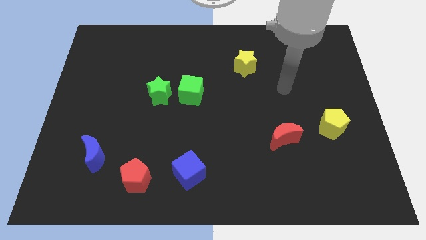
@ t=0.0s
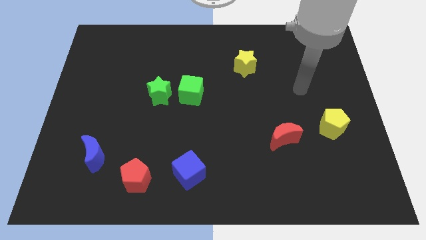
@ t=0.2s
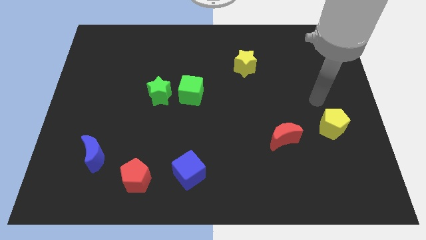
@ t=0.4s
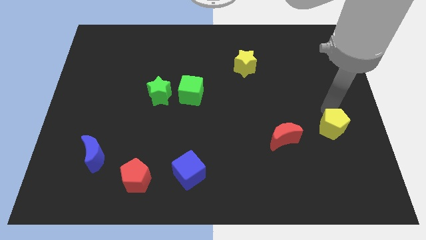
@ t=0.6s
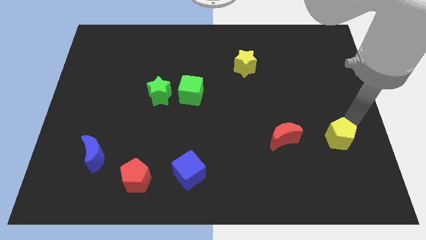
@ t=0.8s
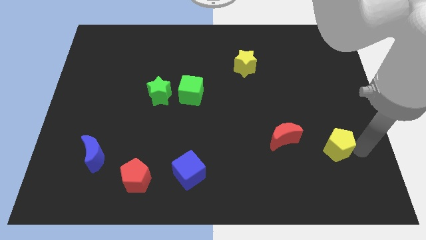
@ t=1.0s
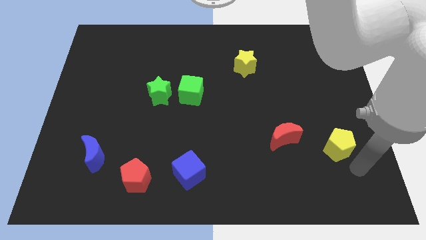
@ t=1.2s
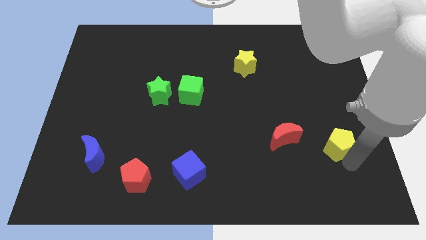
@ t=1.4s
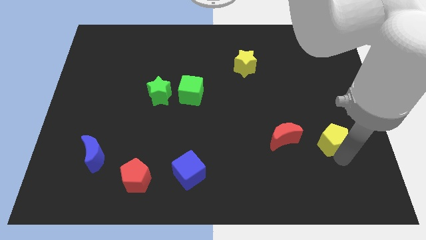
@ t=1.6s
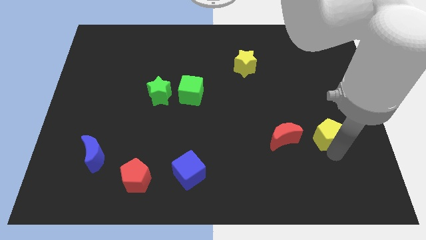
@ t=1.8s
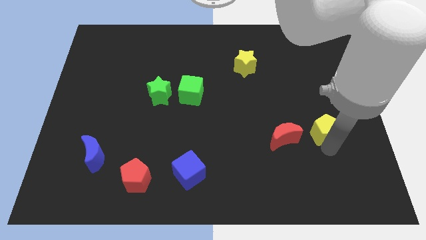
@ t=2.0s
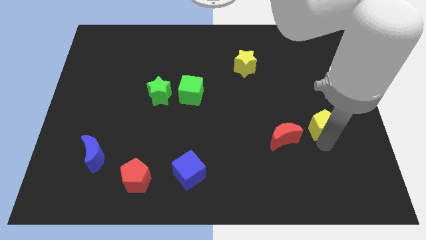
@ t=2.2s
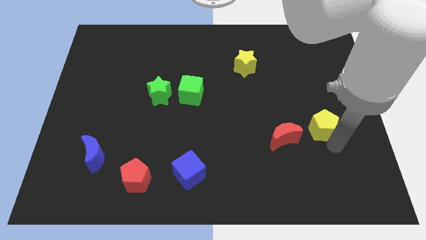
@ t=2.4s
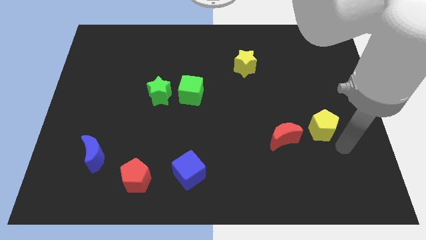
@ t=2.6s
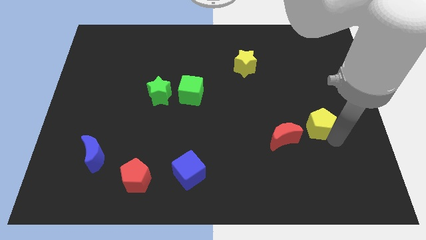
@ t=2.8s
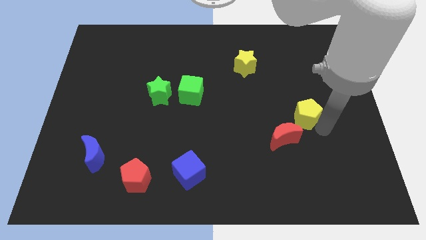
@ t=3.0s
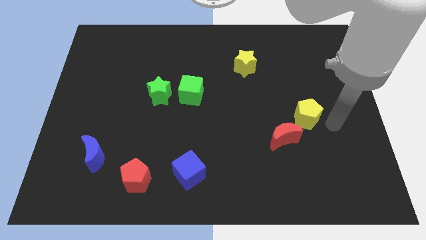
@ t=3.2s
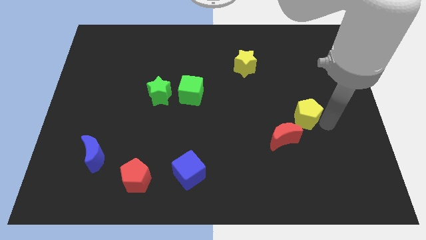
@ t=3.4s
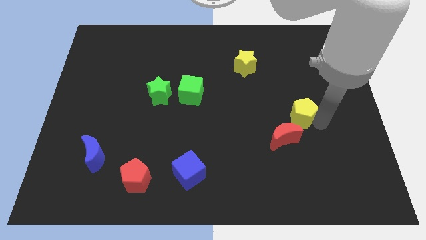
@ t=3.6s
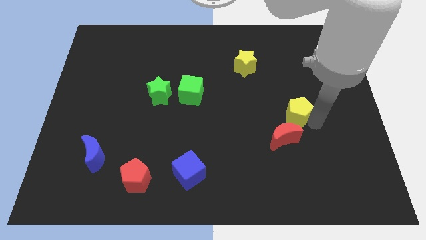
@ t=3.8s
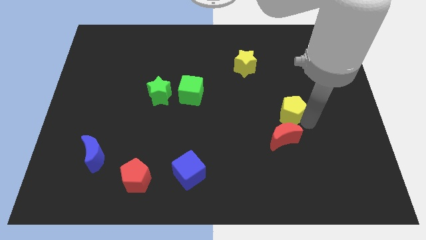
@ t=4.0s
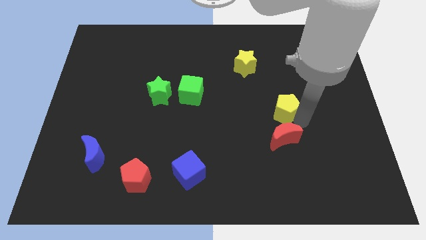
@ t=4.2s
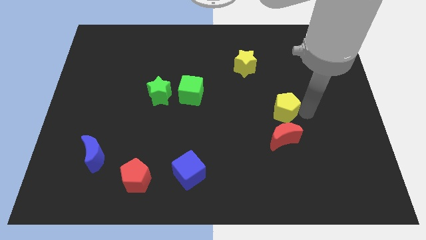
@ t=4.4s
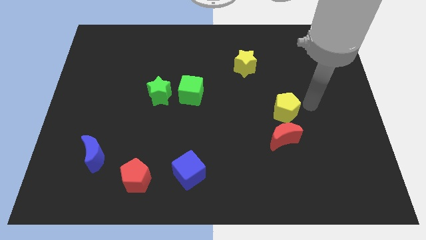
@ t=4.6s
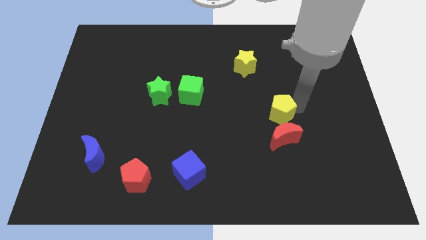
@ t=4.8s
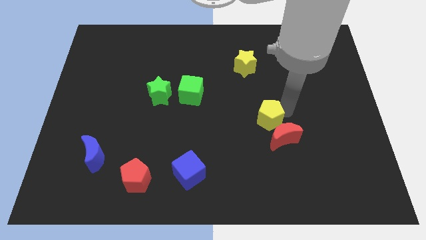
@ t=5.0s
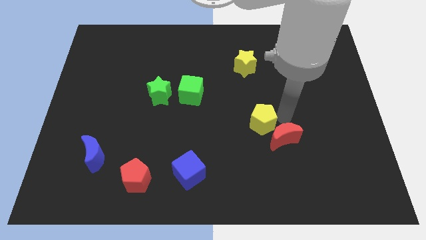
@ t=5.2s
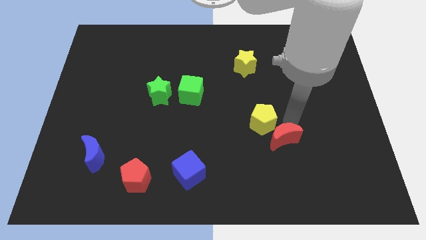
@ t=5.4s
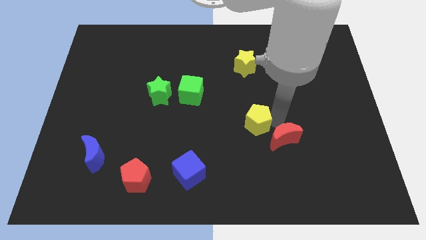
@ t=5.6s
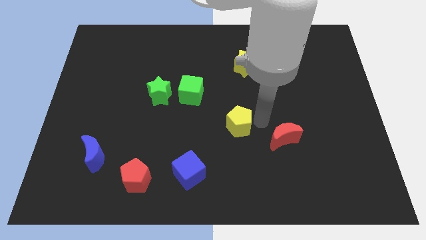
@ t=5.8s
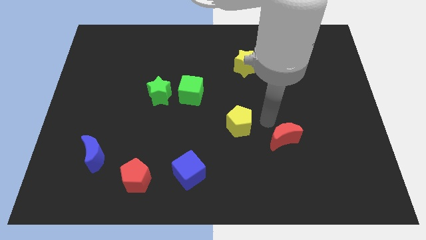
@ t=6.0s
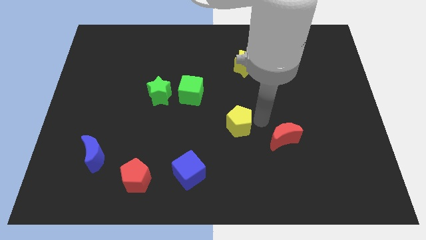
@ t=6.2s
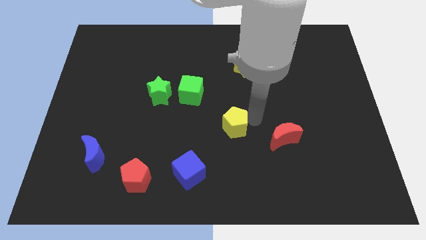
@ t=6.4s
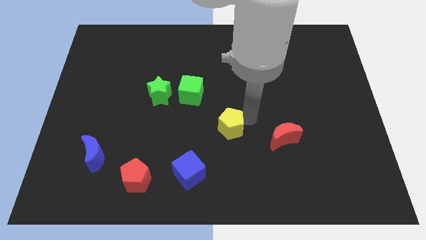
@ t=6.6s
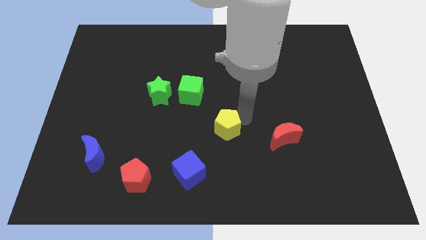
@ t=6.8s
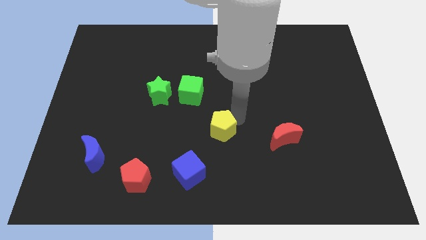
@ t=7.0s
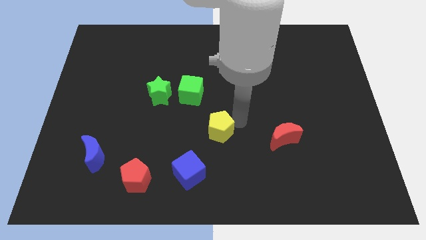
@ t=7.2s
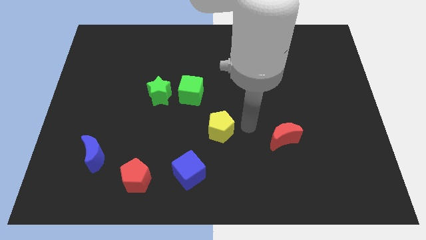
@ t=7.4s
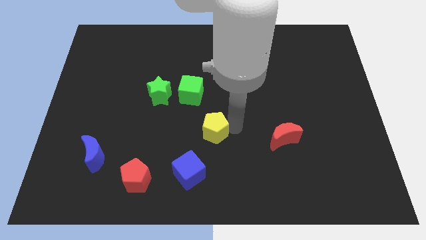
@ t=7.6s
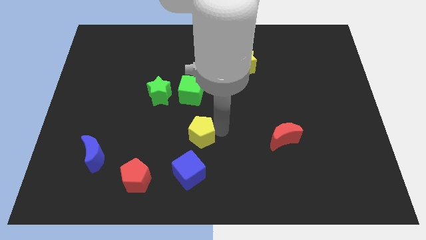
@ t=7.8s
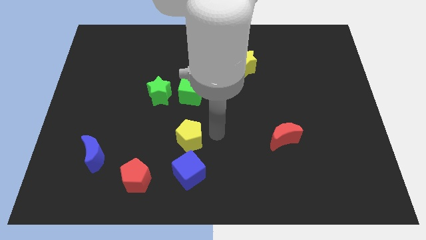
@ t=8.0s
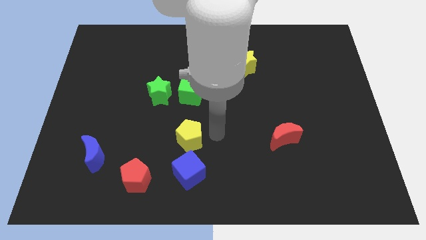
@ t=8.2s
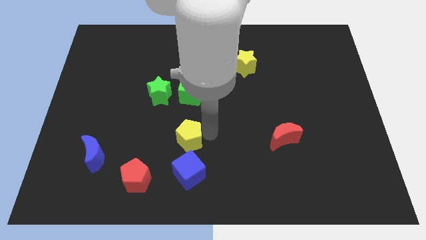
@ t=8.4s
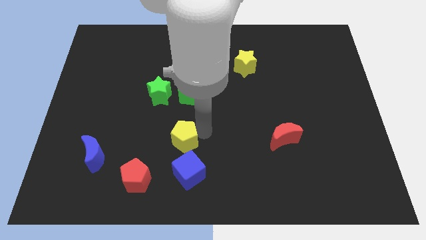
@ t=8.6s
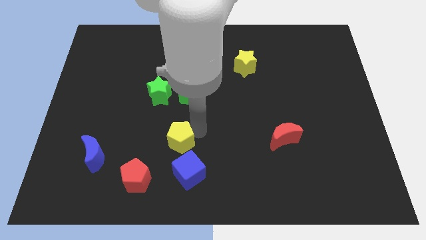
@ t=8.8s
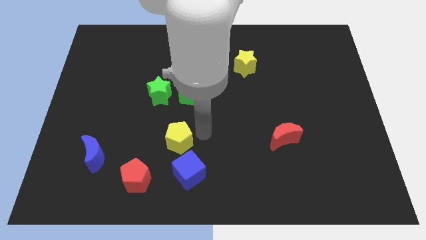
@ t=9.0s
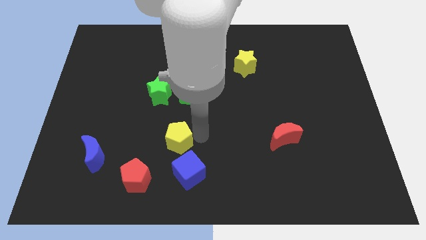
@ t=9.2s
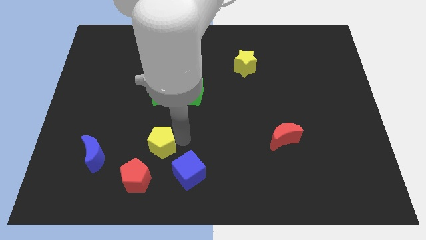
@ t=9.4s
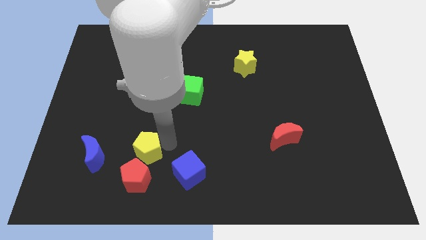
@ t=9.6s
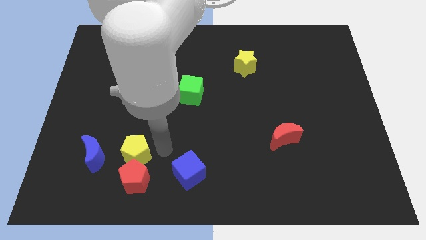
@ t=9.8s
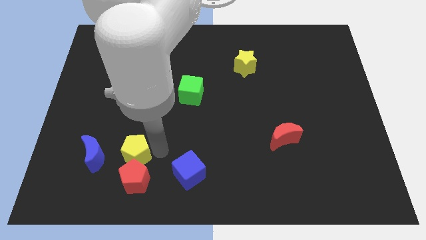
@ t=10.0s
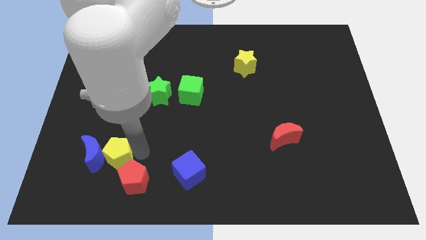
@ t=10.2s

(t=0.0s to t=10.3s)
slide the yellow pentagon to the blue moon
